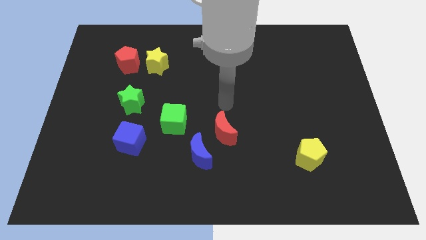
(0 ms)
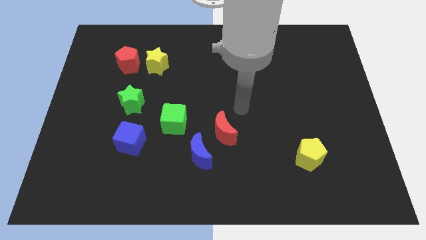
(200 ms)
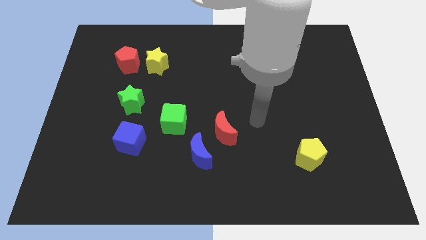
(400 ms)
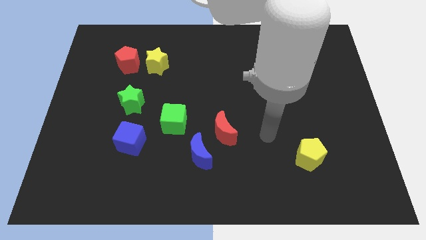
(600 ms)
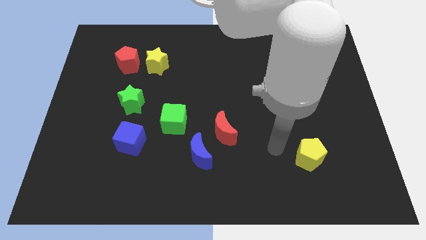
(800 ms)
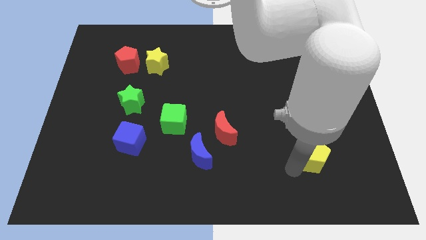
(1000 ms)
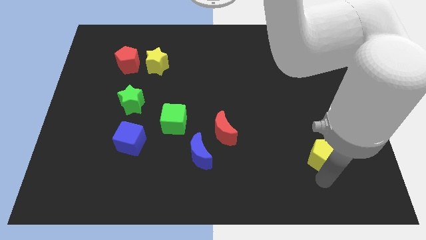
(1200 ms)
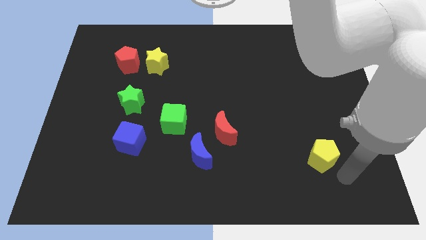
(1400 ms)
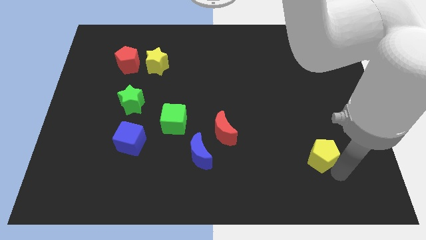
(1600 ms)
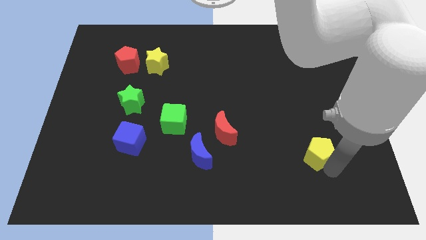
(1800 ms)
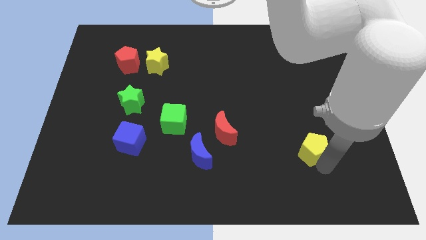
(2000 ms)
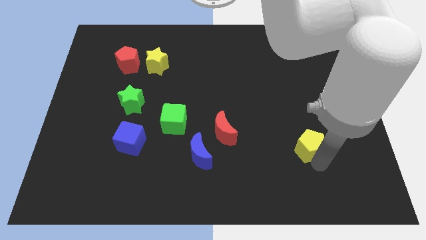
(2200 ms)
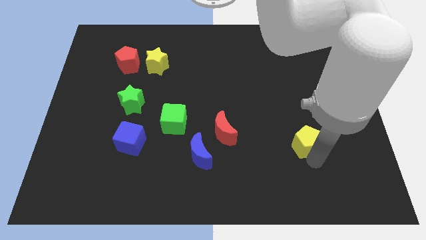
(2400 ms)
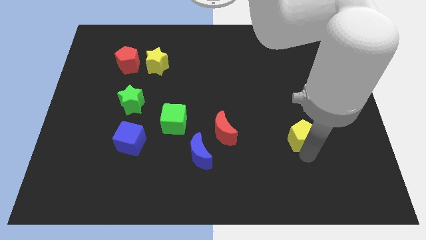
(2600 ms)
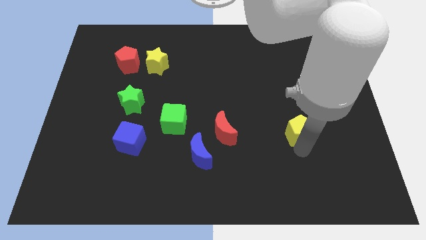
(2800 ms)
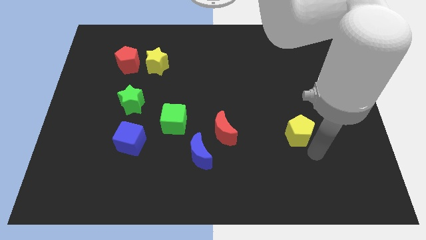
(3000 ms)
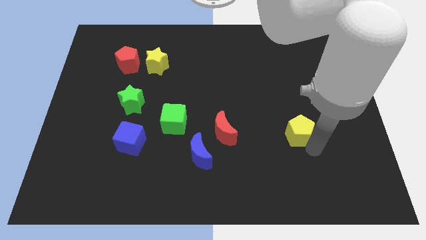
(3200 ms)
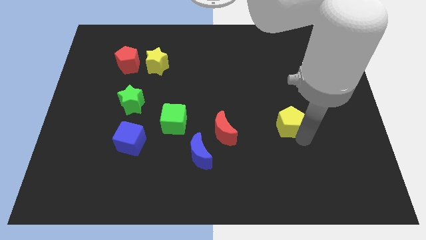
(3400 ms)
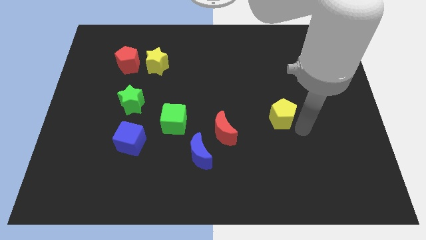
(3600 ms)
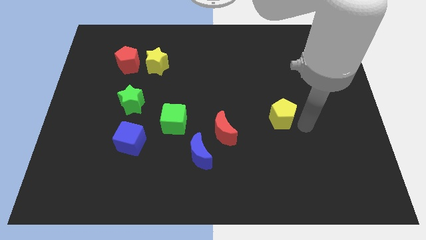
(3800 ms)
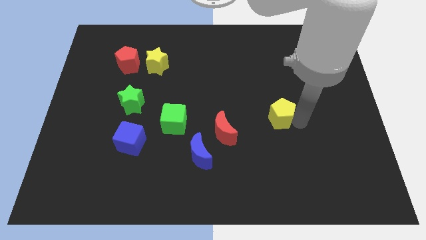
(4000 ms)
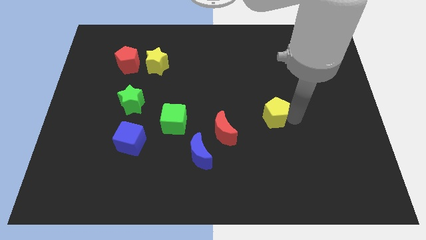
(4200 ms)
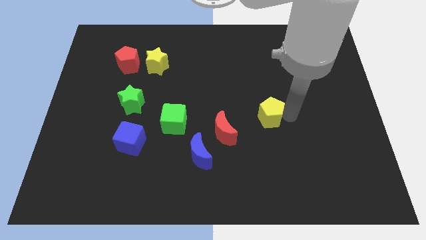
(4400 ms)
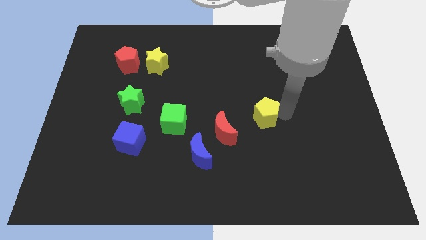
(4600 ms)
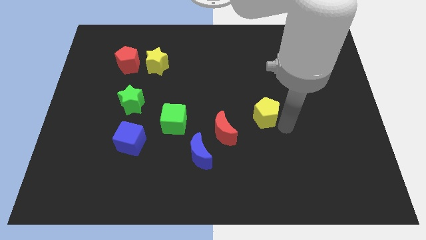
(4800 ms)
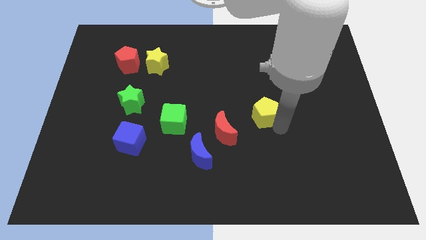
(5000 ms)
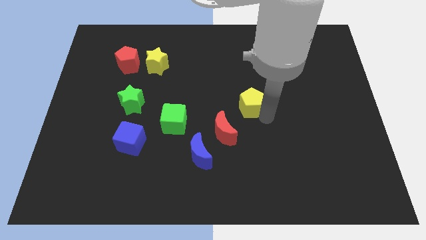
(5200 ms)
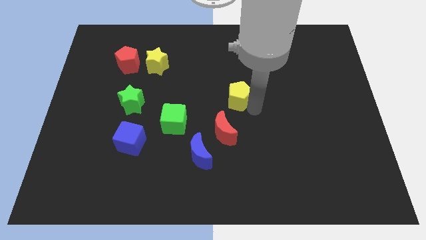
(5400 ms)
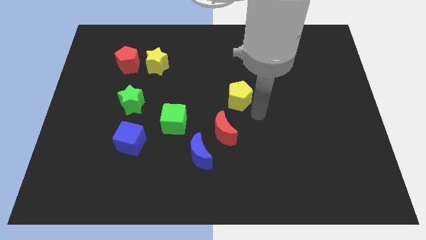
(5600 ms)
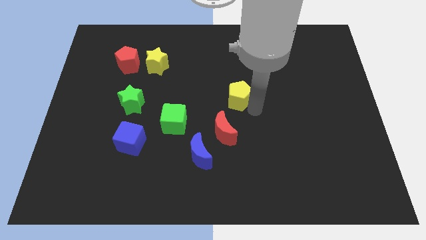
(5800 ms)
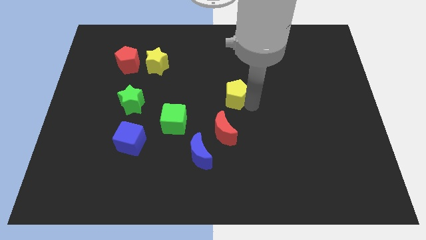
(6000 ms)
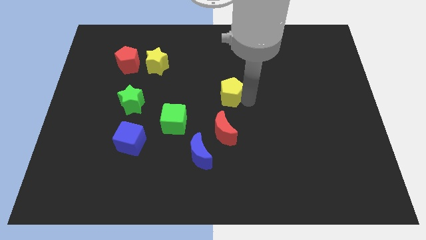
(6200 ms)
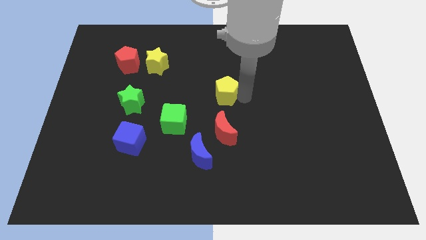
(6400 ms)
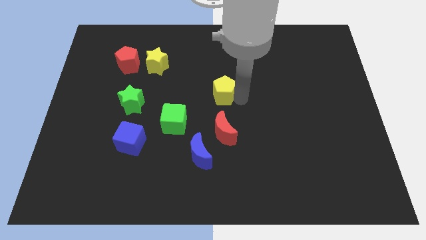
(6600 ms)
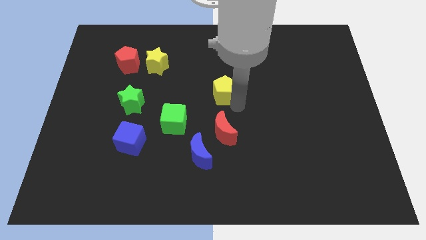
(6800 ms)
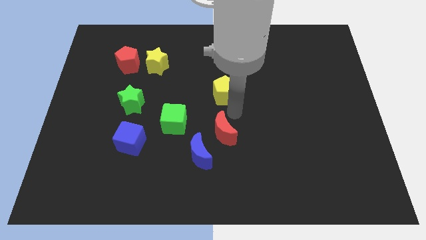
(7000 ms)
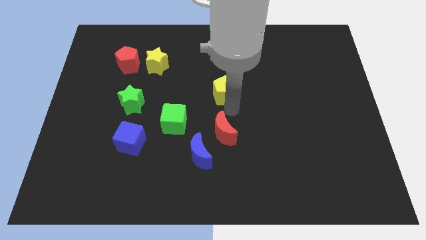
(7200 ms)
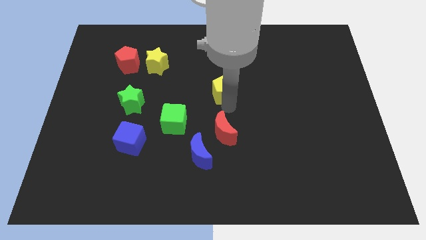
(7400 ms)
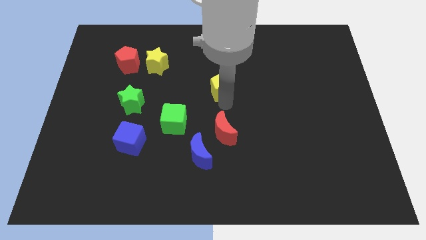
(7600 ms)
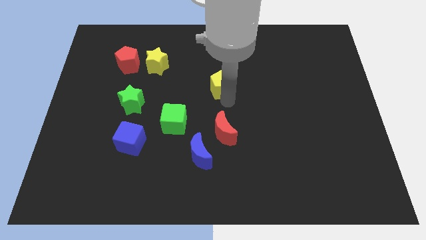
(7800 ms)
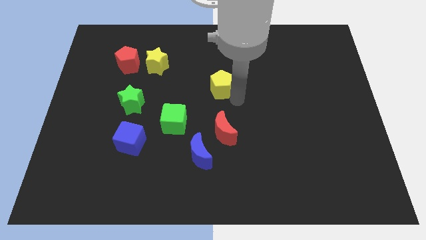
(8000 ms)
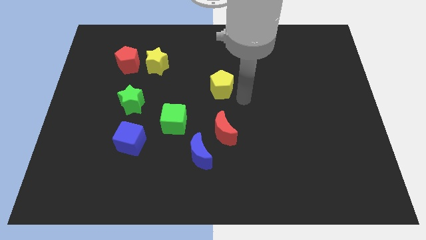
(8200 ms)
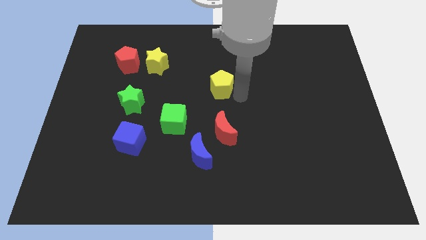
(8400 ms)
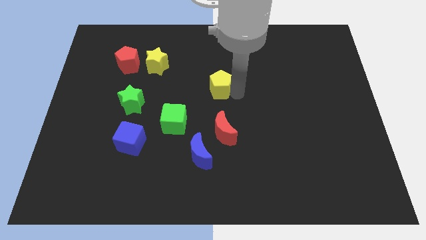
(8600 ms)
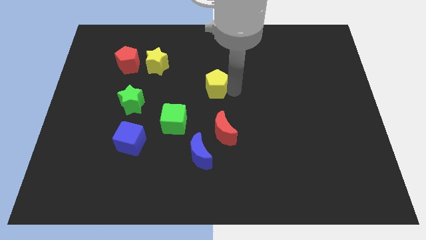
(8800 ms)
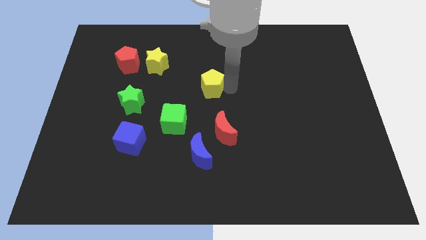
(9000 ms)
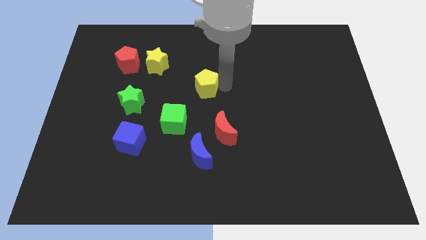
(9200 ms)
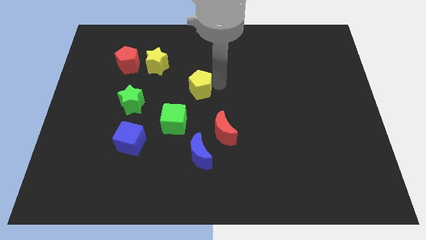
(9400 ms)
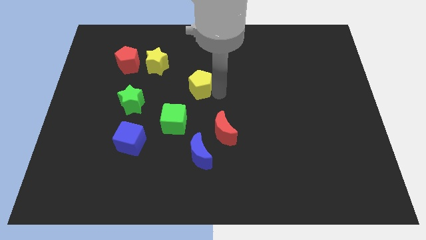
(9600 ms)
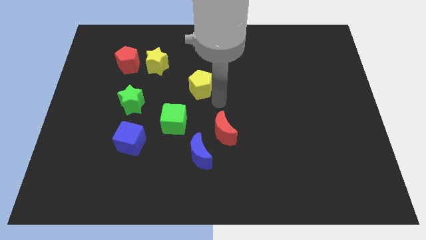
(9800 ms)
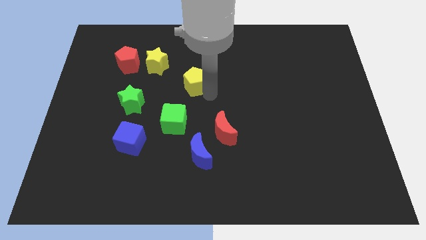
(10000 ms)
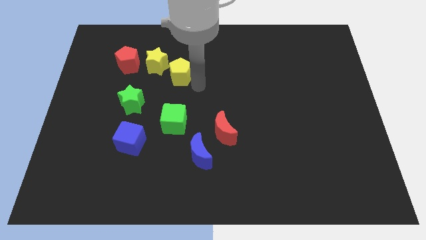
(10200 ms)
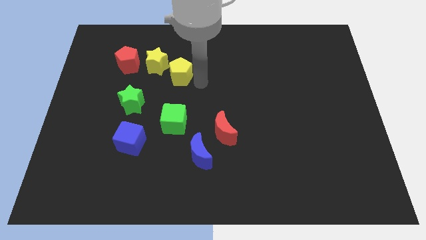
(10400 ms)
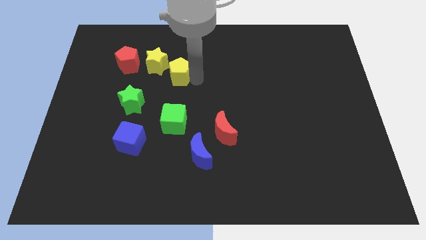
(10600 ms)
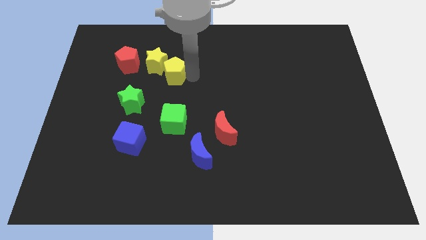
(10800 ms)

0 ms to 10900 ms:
slide the yellow pentagon towards the yellow star

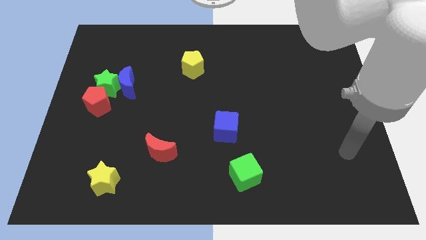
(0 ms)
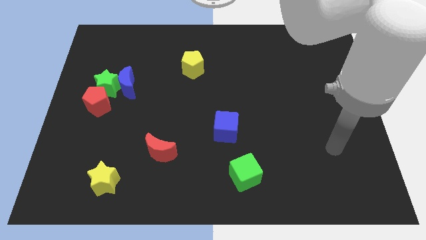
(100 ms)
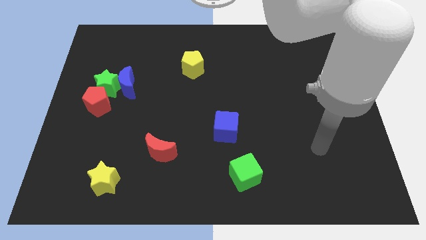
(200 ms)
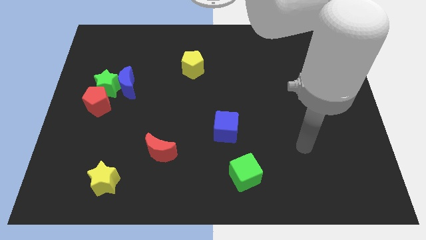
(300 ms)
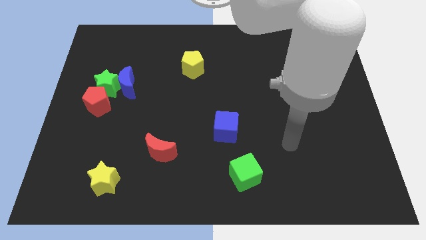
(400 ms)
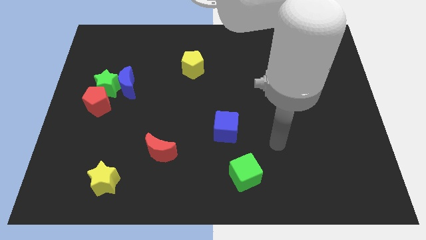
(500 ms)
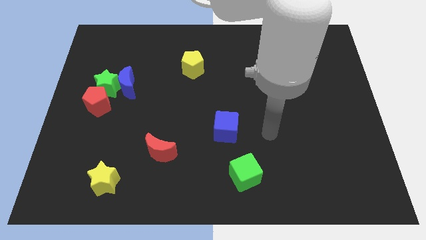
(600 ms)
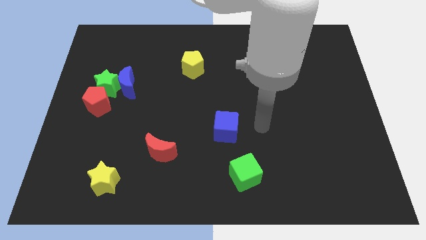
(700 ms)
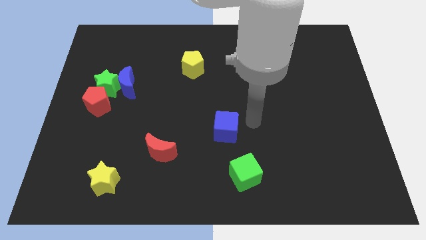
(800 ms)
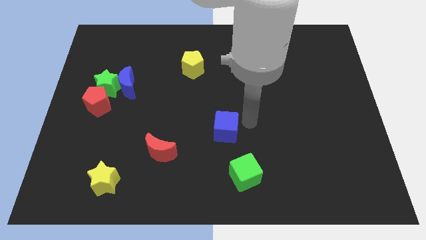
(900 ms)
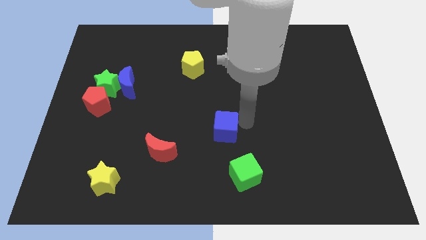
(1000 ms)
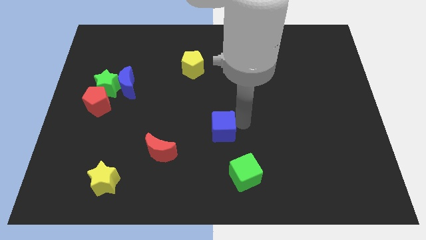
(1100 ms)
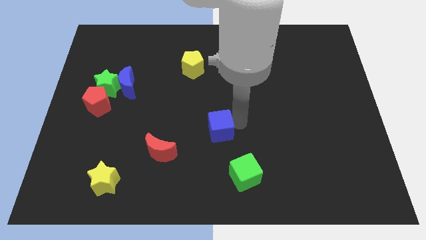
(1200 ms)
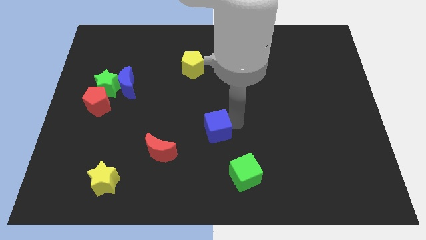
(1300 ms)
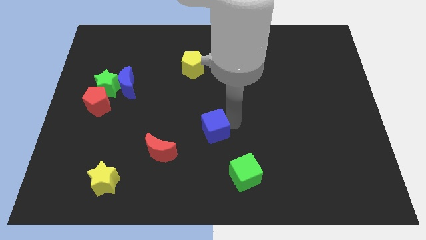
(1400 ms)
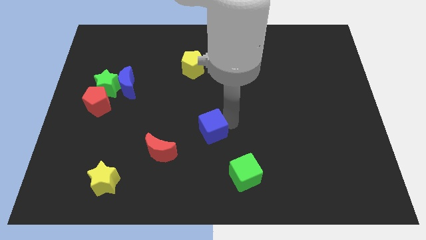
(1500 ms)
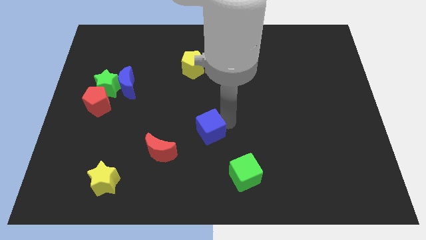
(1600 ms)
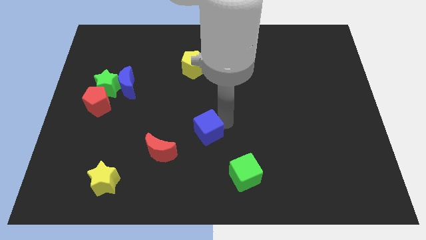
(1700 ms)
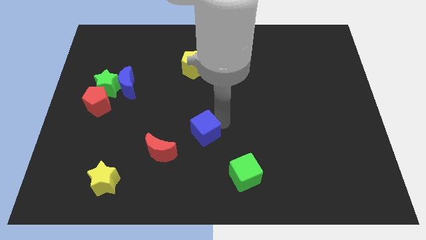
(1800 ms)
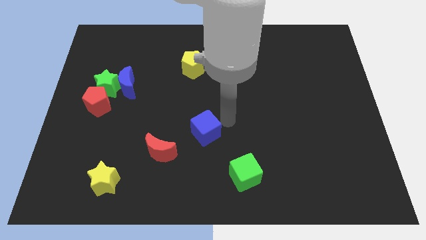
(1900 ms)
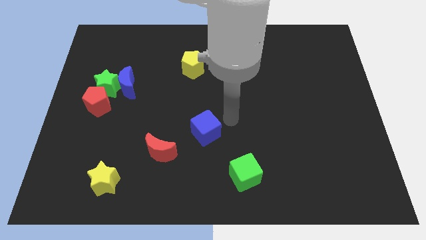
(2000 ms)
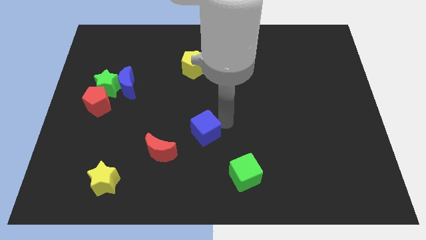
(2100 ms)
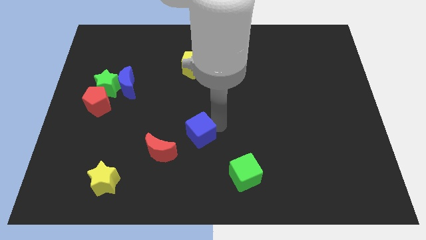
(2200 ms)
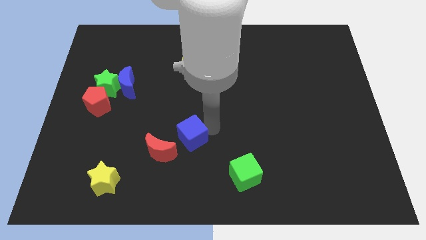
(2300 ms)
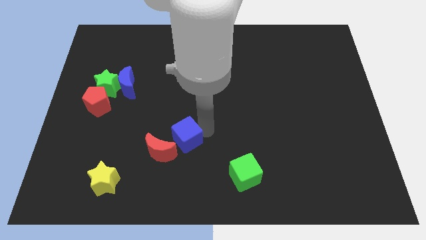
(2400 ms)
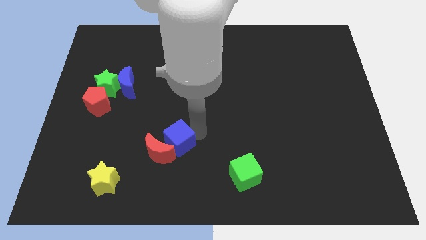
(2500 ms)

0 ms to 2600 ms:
move the blue cube towards the red moon
